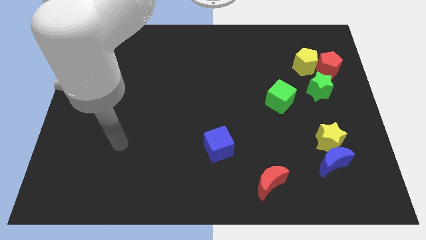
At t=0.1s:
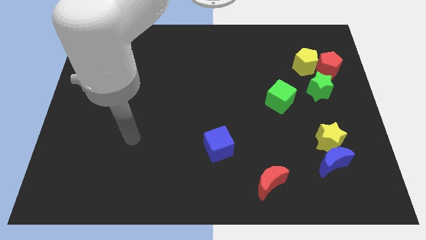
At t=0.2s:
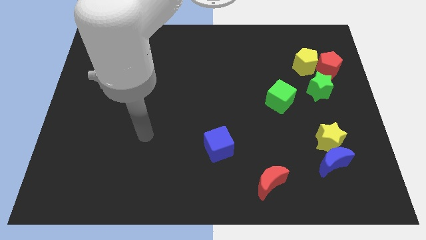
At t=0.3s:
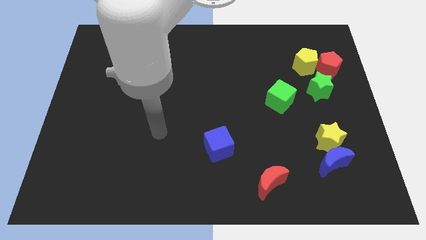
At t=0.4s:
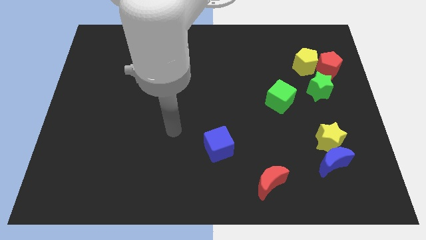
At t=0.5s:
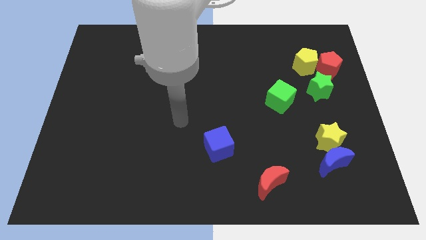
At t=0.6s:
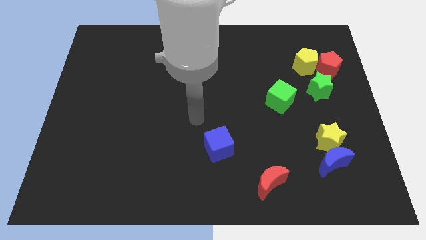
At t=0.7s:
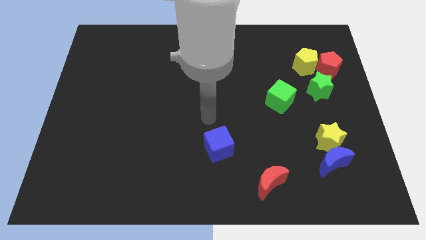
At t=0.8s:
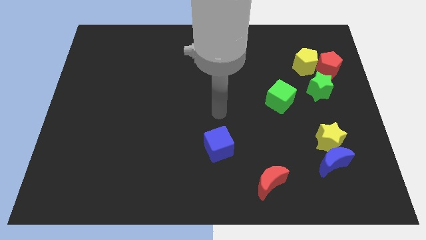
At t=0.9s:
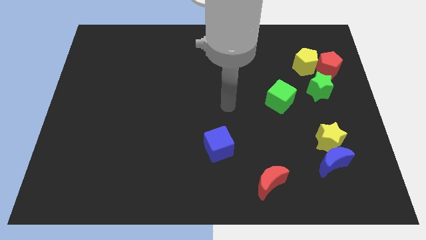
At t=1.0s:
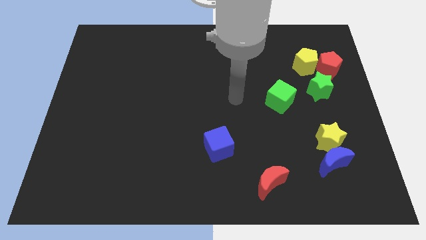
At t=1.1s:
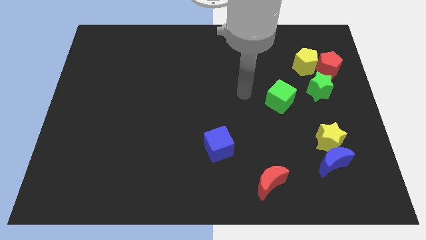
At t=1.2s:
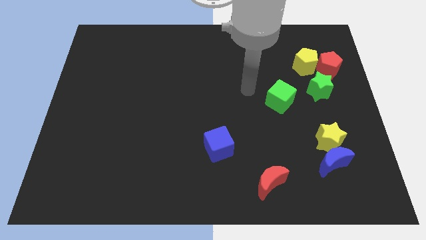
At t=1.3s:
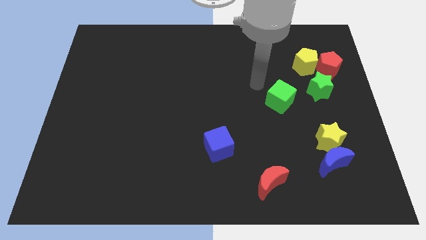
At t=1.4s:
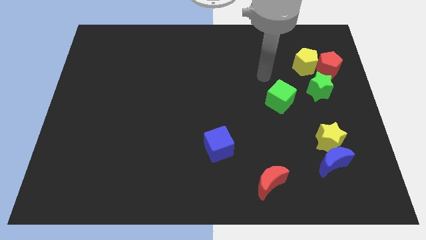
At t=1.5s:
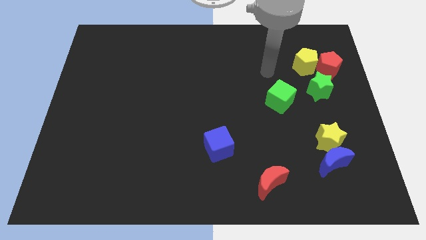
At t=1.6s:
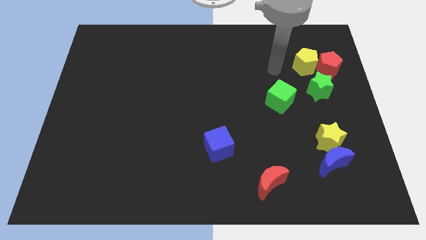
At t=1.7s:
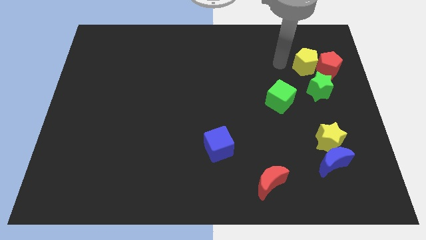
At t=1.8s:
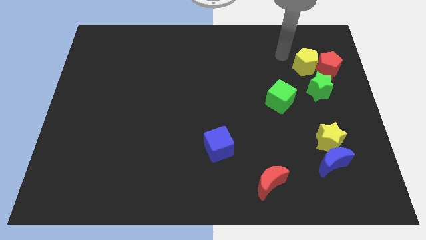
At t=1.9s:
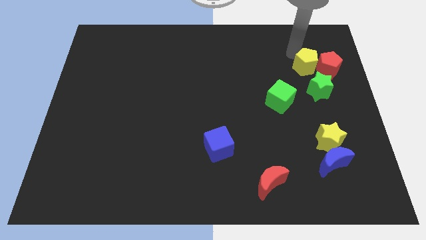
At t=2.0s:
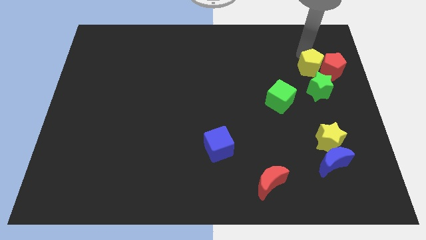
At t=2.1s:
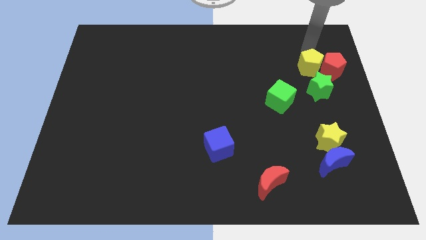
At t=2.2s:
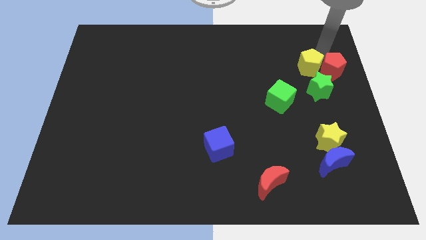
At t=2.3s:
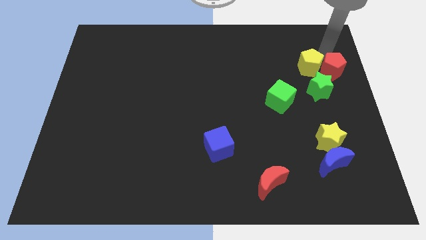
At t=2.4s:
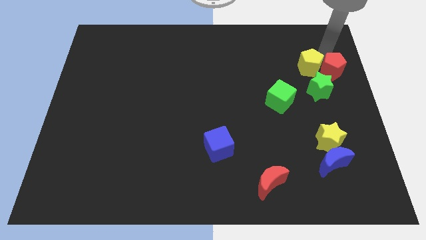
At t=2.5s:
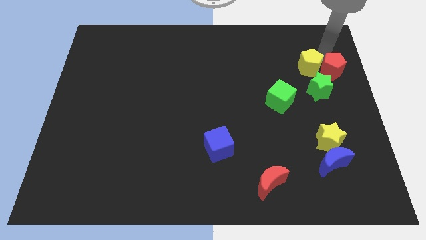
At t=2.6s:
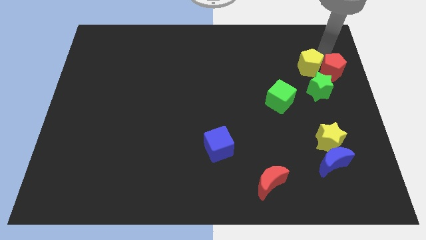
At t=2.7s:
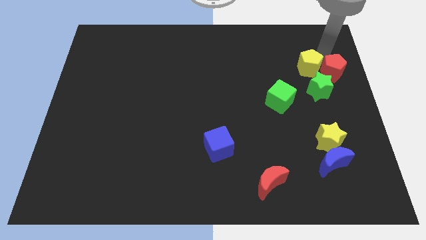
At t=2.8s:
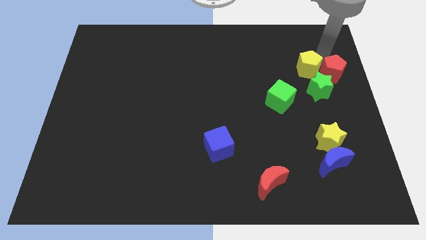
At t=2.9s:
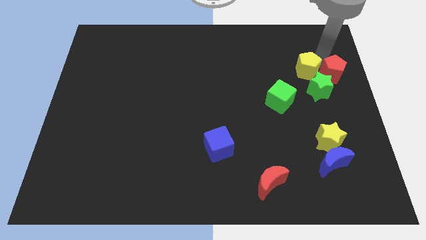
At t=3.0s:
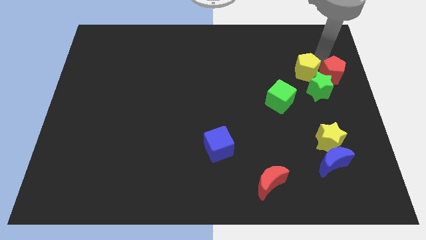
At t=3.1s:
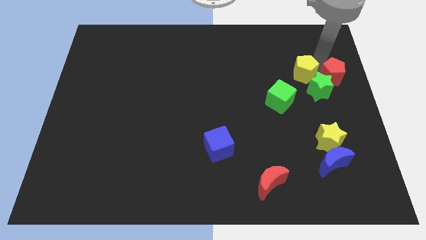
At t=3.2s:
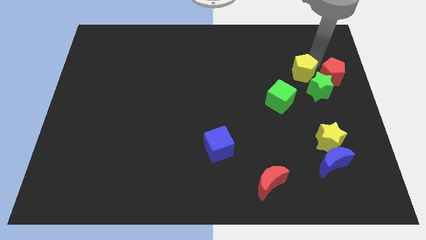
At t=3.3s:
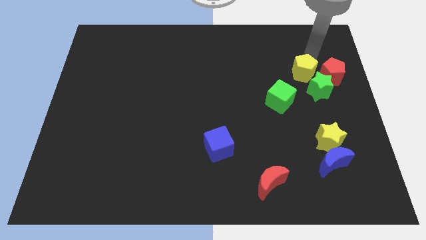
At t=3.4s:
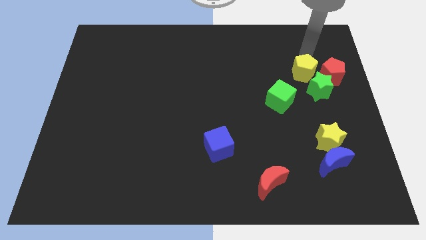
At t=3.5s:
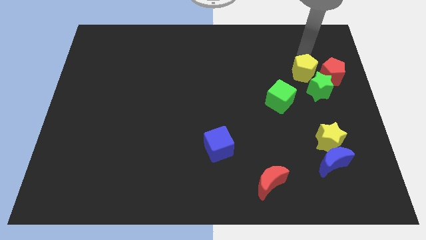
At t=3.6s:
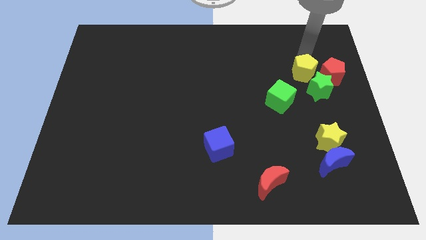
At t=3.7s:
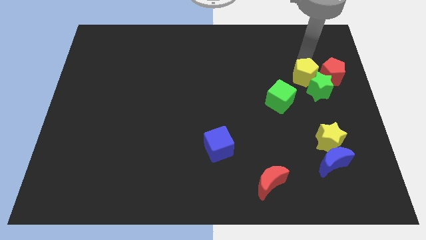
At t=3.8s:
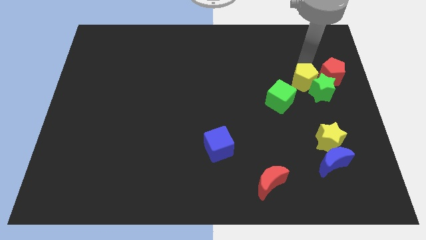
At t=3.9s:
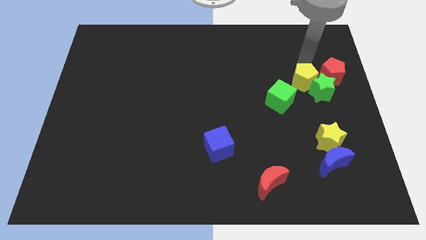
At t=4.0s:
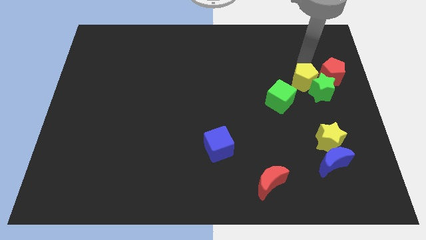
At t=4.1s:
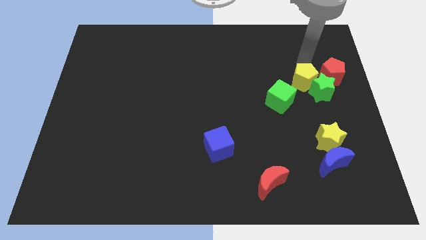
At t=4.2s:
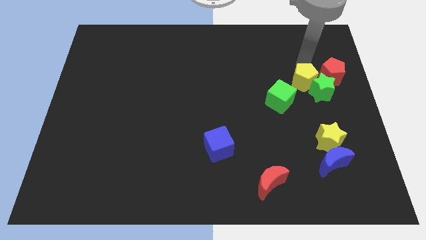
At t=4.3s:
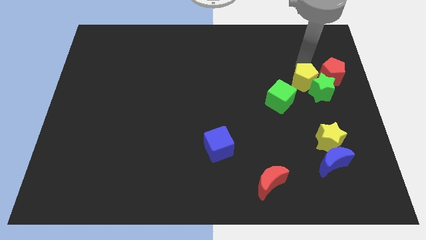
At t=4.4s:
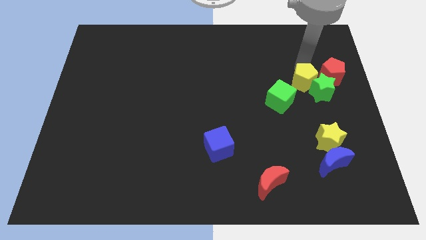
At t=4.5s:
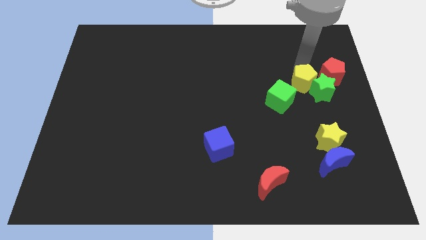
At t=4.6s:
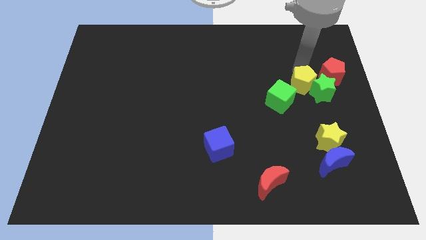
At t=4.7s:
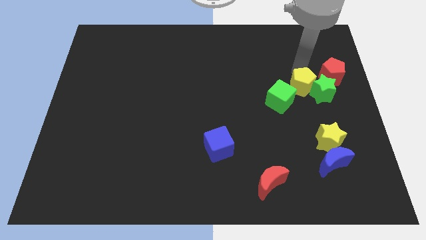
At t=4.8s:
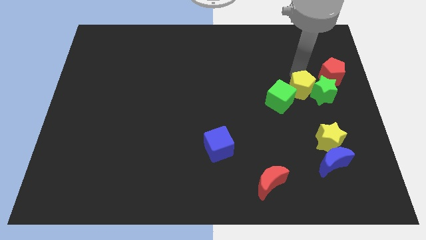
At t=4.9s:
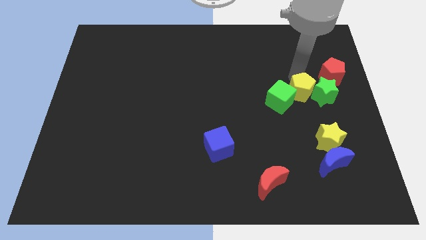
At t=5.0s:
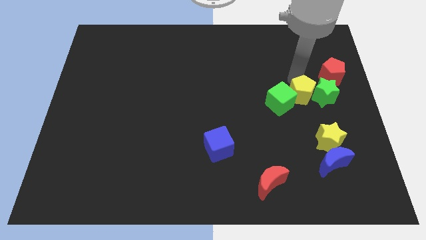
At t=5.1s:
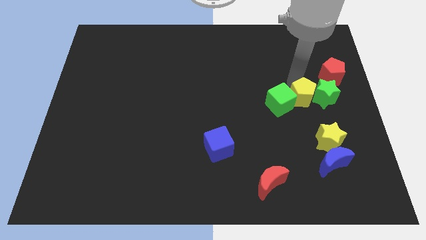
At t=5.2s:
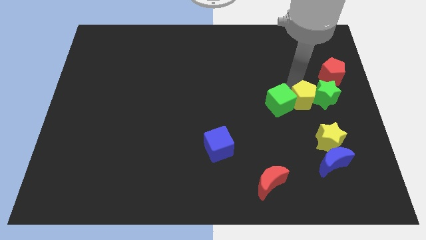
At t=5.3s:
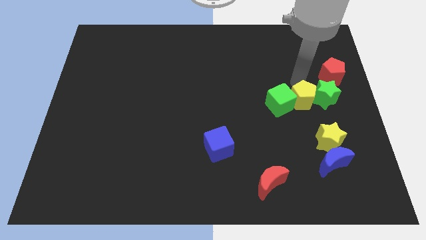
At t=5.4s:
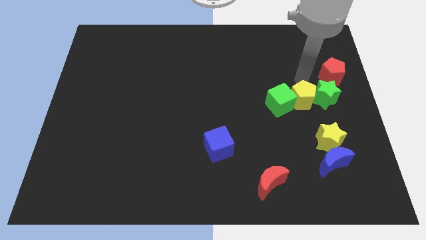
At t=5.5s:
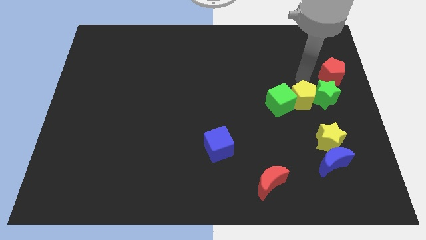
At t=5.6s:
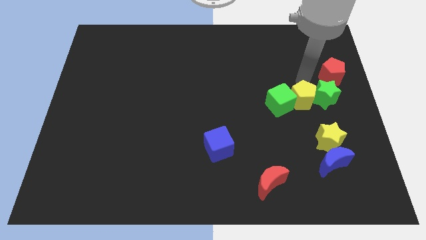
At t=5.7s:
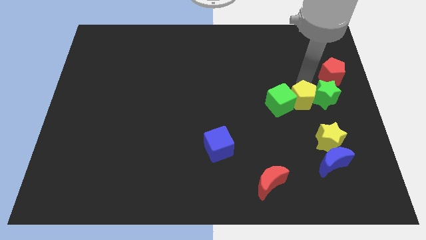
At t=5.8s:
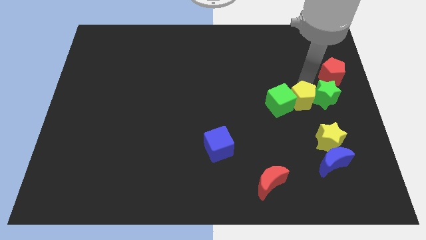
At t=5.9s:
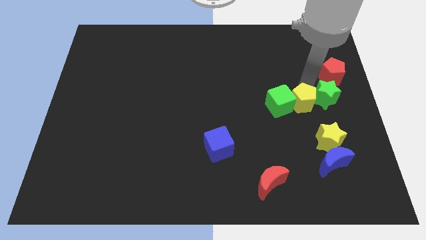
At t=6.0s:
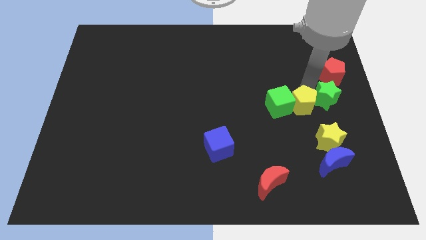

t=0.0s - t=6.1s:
put the yellow pentagon to the top left side of the yellow star

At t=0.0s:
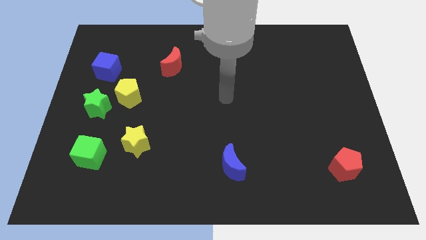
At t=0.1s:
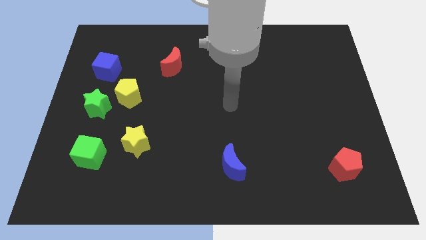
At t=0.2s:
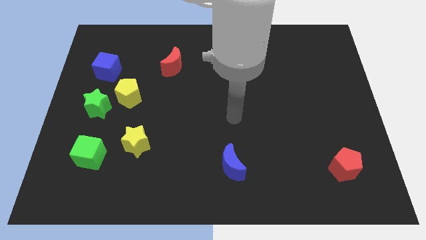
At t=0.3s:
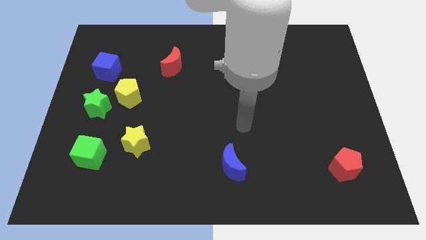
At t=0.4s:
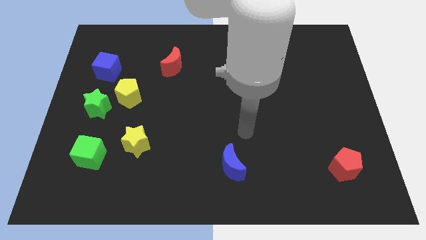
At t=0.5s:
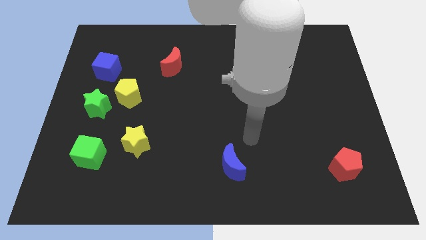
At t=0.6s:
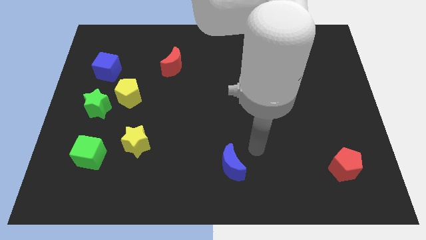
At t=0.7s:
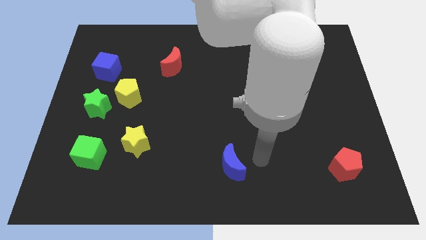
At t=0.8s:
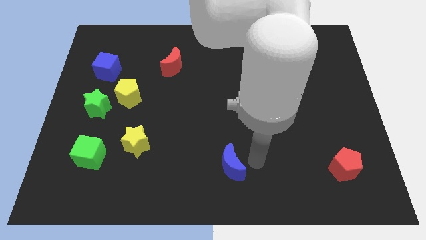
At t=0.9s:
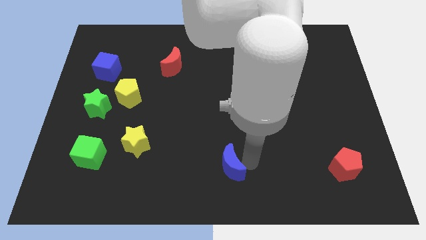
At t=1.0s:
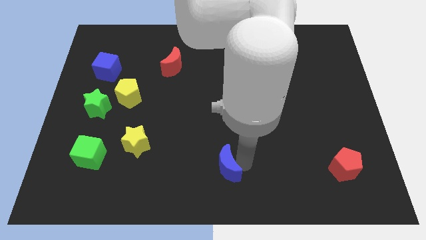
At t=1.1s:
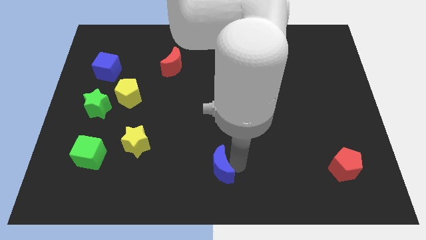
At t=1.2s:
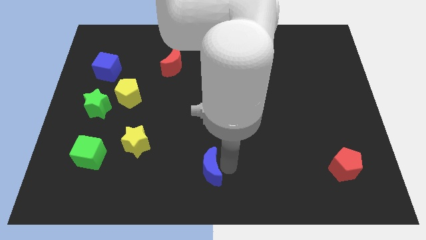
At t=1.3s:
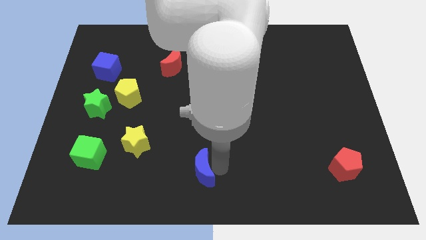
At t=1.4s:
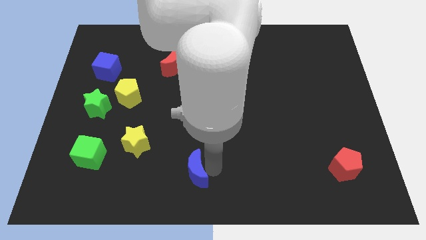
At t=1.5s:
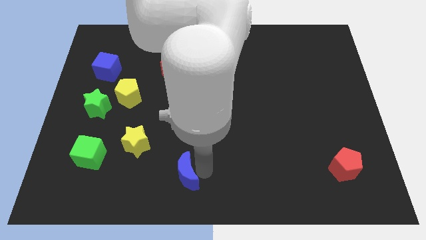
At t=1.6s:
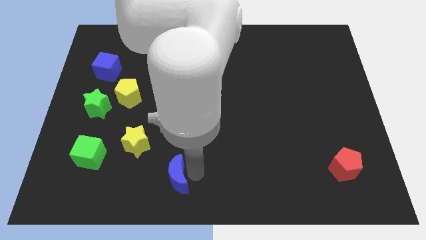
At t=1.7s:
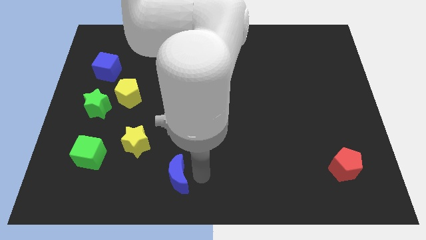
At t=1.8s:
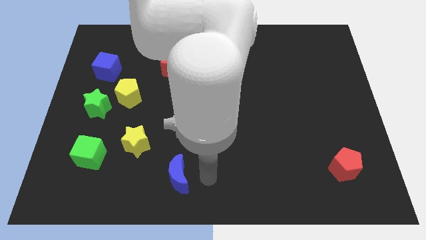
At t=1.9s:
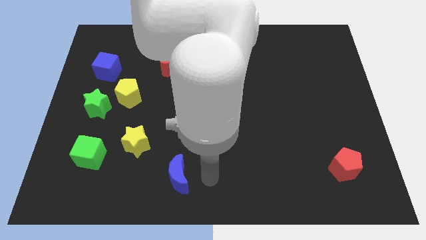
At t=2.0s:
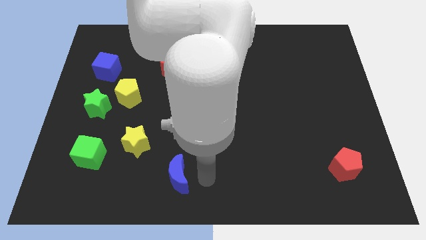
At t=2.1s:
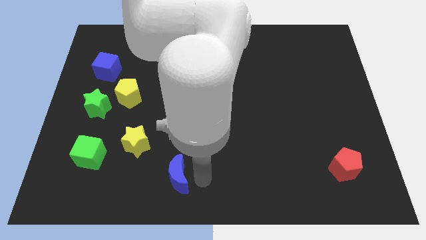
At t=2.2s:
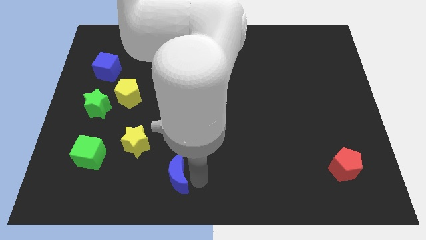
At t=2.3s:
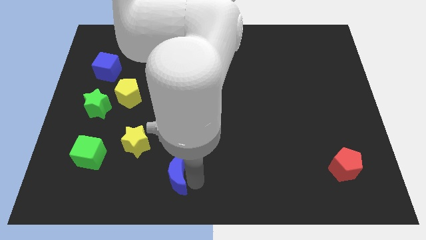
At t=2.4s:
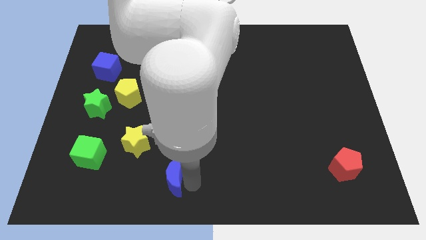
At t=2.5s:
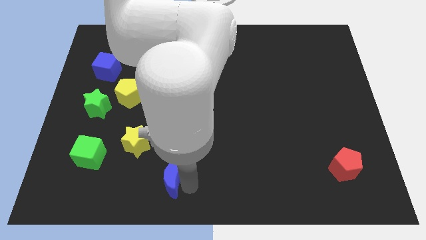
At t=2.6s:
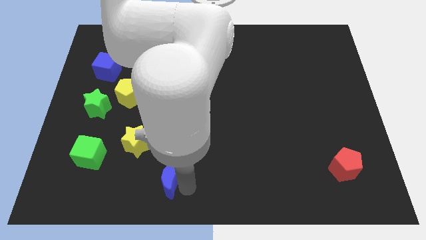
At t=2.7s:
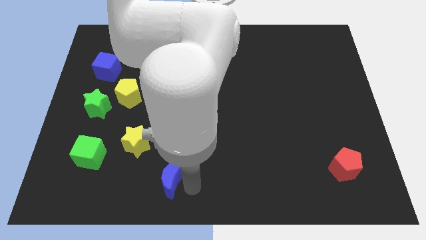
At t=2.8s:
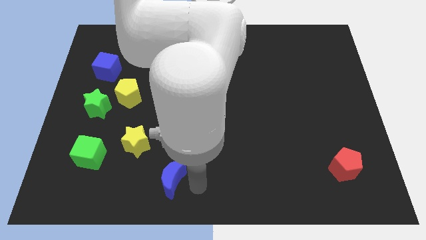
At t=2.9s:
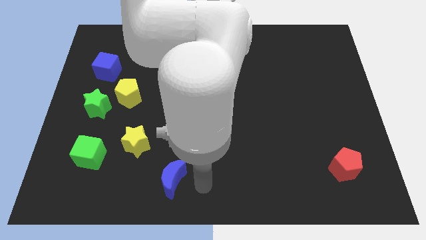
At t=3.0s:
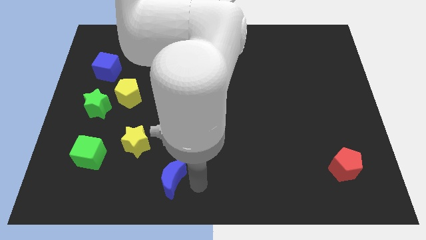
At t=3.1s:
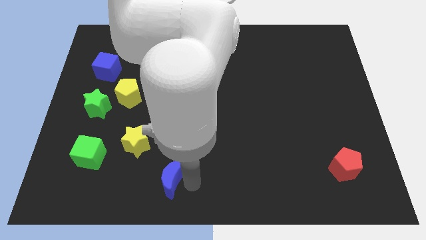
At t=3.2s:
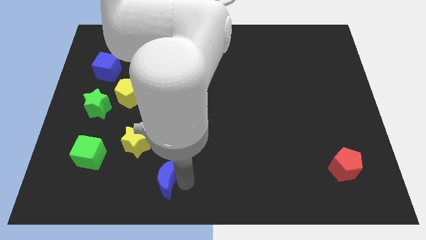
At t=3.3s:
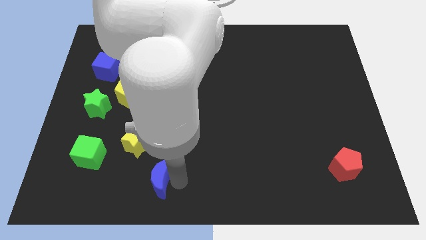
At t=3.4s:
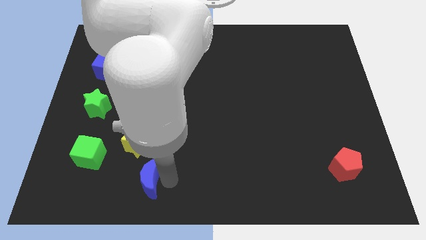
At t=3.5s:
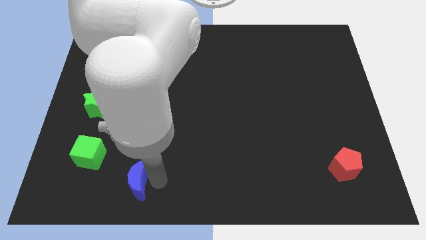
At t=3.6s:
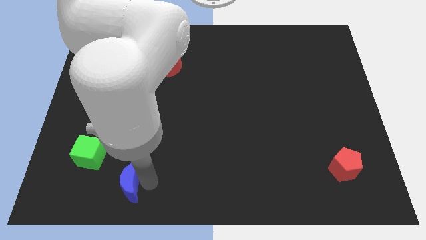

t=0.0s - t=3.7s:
move the blue moon to the bottom right of the green cube
